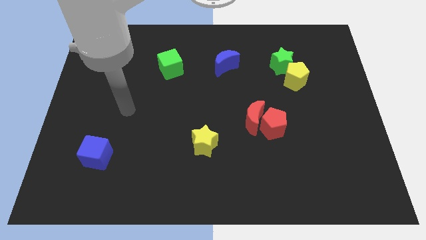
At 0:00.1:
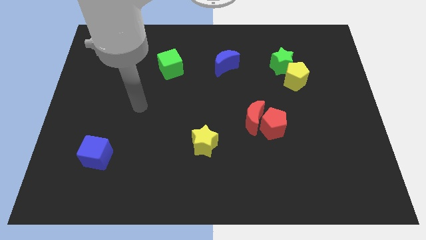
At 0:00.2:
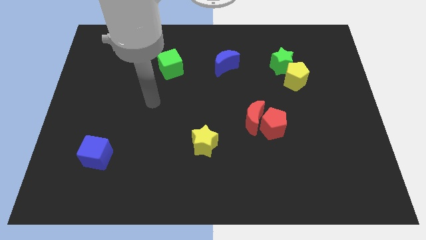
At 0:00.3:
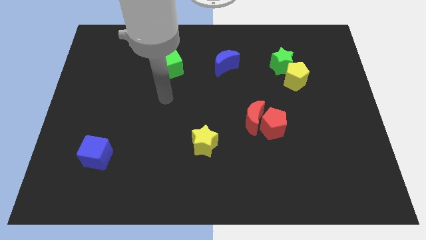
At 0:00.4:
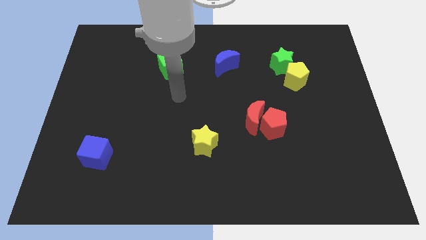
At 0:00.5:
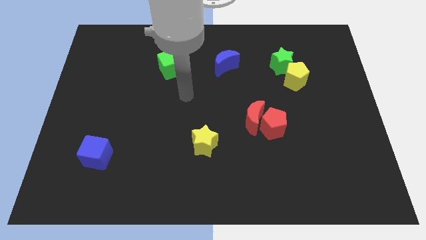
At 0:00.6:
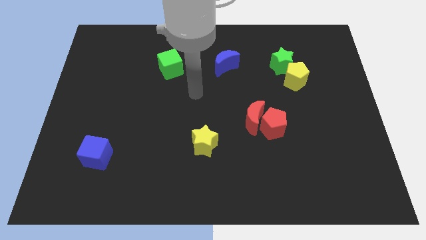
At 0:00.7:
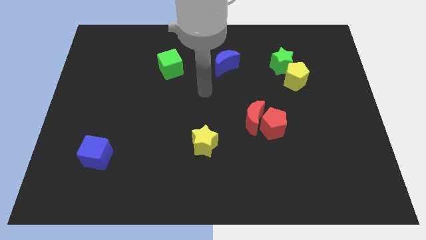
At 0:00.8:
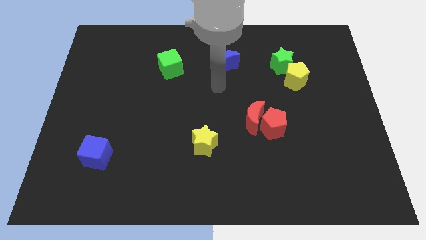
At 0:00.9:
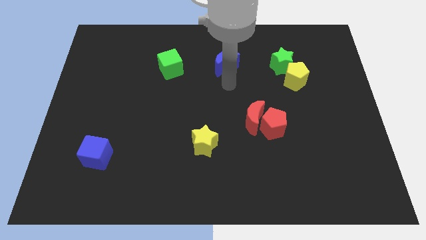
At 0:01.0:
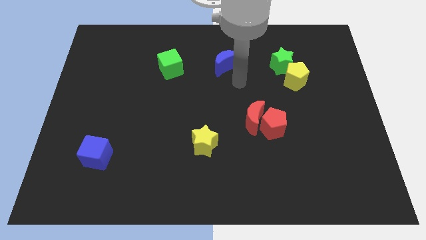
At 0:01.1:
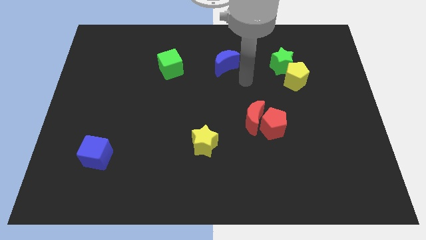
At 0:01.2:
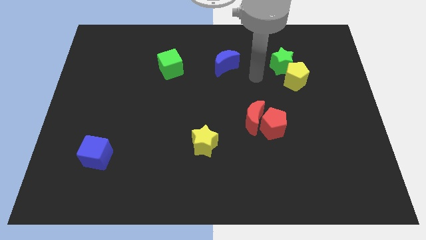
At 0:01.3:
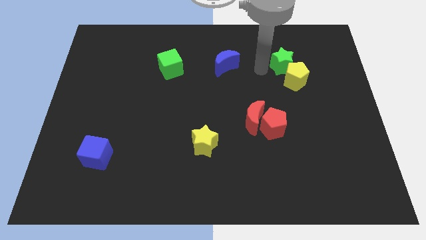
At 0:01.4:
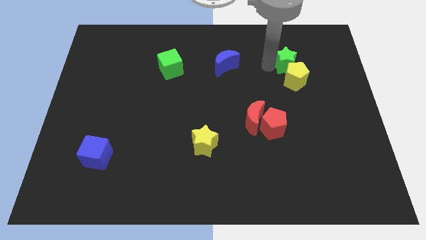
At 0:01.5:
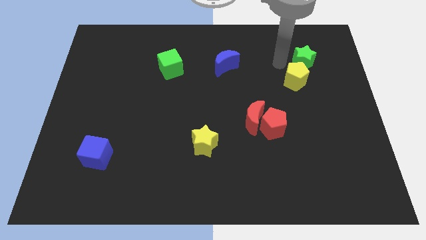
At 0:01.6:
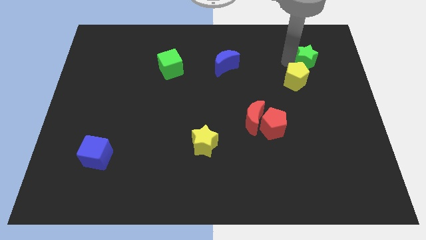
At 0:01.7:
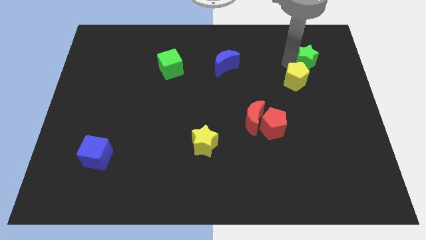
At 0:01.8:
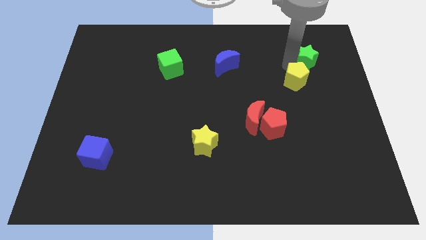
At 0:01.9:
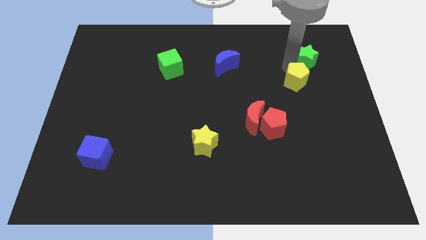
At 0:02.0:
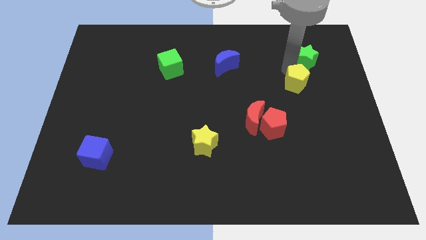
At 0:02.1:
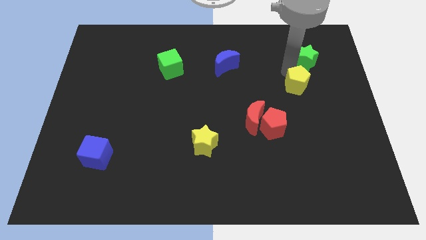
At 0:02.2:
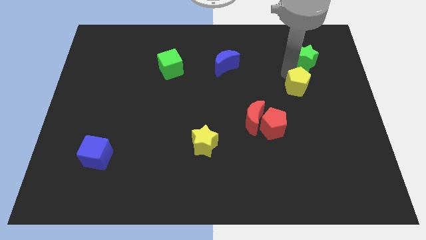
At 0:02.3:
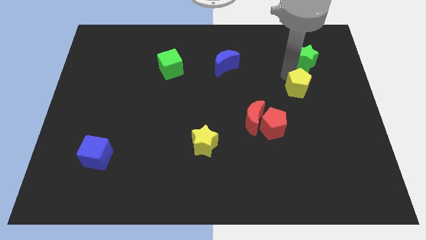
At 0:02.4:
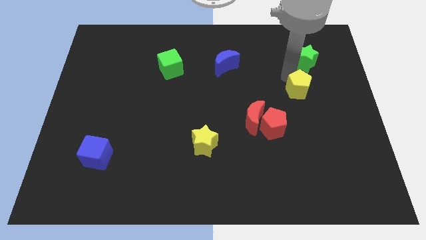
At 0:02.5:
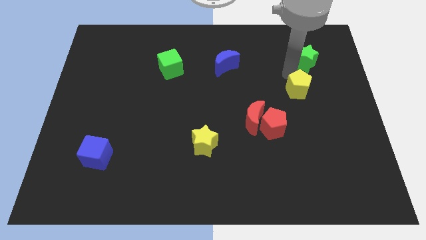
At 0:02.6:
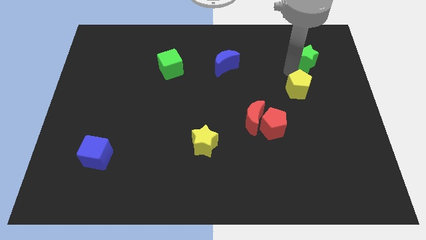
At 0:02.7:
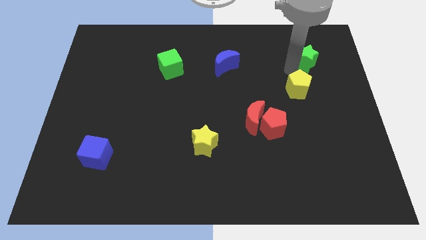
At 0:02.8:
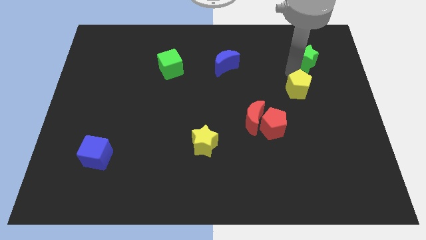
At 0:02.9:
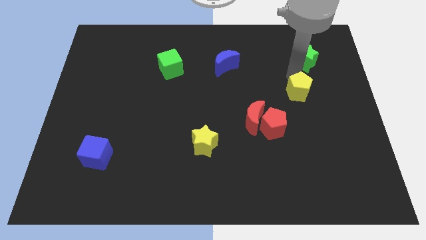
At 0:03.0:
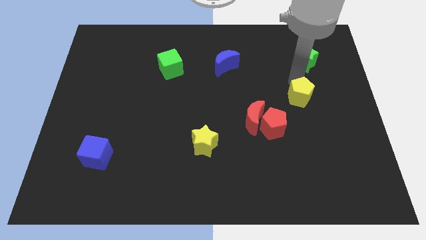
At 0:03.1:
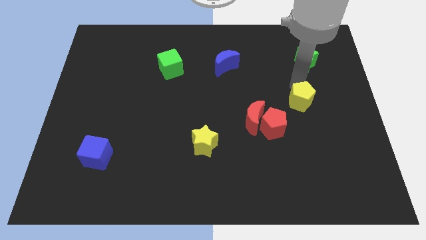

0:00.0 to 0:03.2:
slide the yellow pentagon slightly downwards

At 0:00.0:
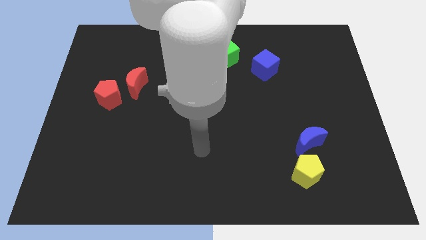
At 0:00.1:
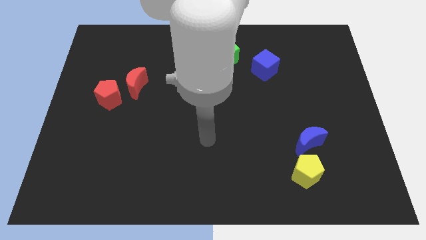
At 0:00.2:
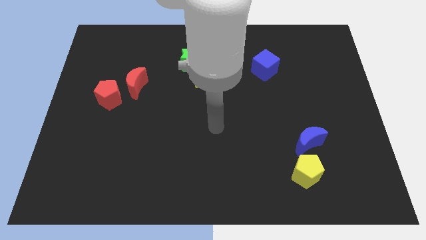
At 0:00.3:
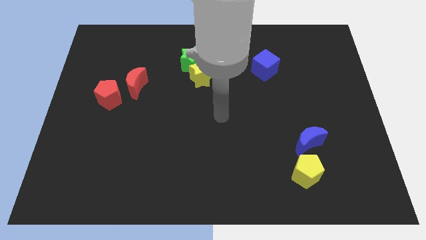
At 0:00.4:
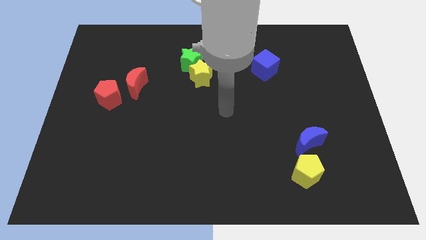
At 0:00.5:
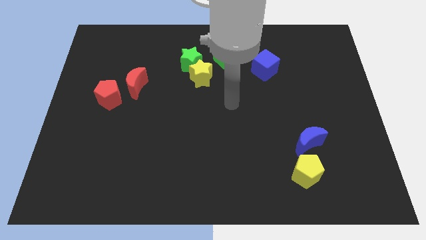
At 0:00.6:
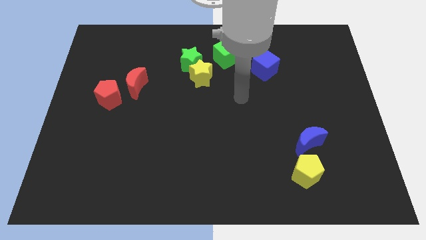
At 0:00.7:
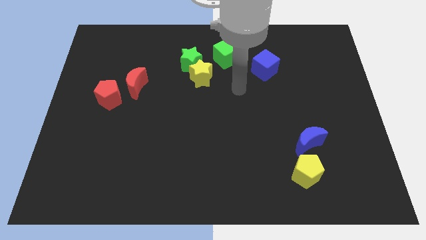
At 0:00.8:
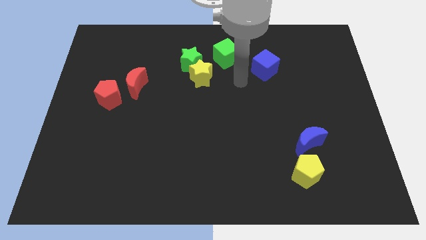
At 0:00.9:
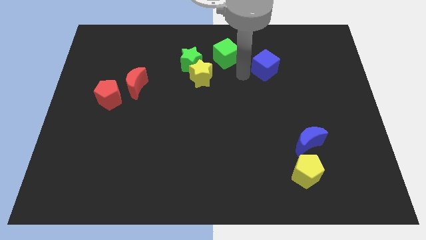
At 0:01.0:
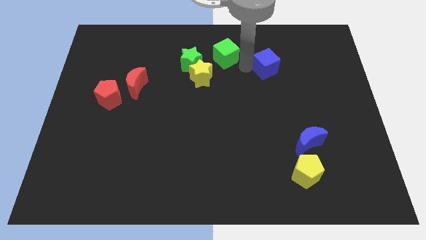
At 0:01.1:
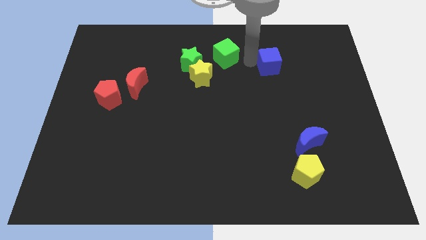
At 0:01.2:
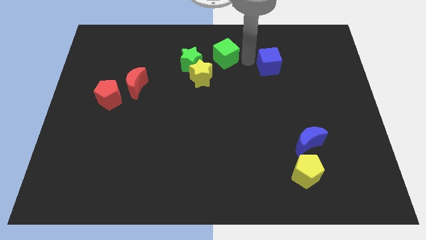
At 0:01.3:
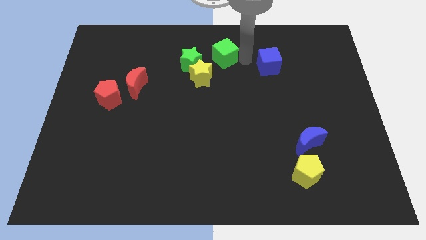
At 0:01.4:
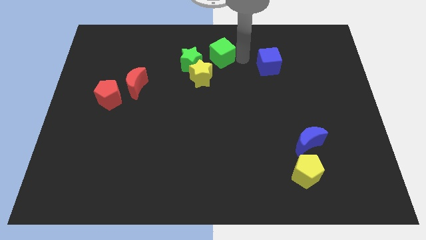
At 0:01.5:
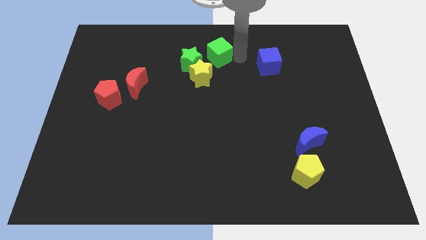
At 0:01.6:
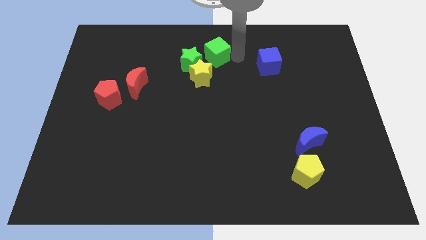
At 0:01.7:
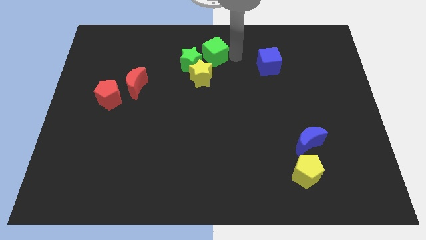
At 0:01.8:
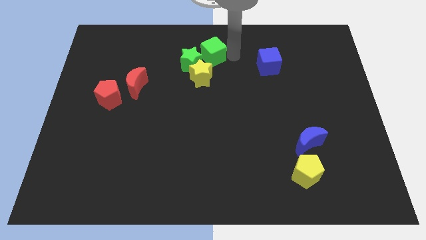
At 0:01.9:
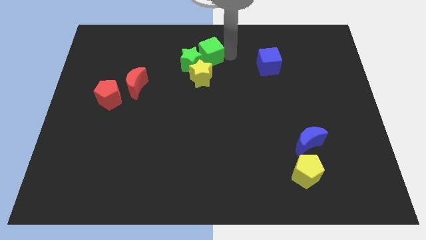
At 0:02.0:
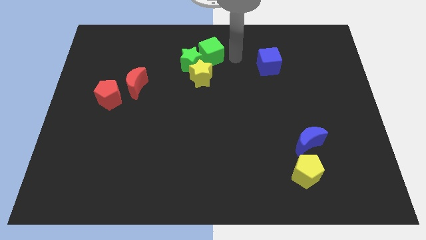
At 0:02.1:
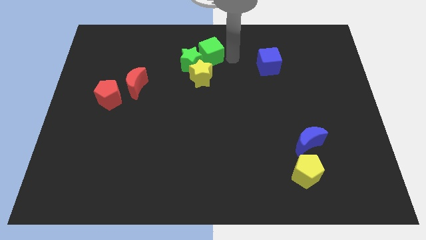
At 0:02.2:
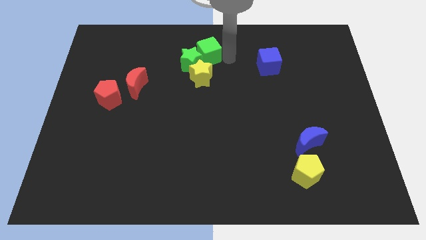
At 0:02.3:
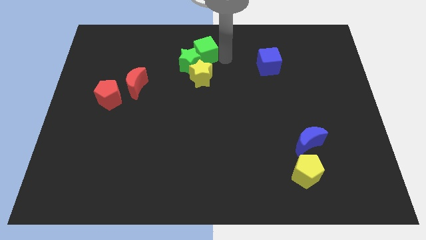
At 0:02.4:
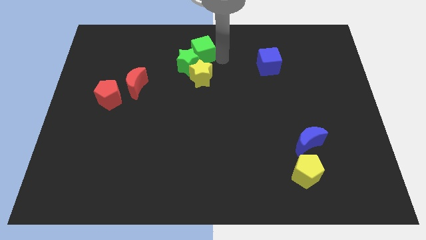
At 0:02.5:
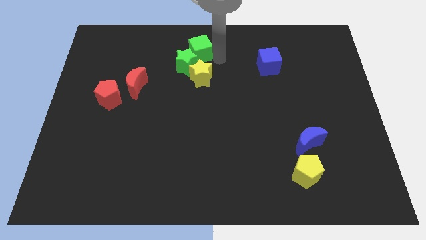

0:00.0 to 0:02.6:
slide the green cube left a little bit

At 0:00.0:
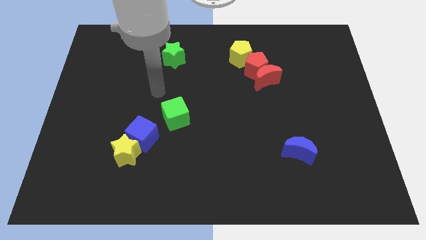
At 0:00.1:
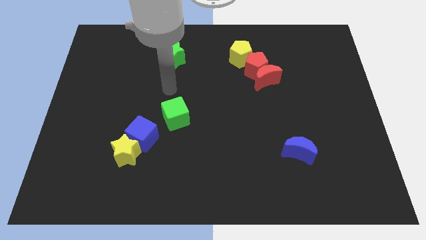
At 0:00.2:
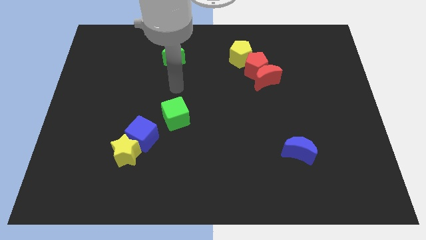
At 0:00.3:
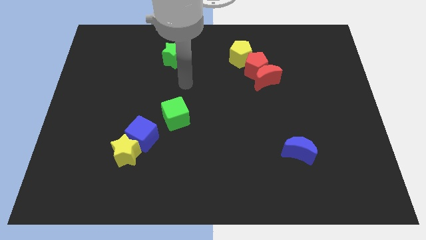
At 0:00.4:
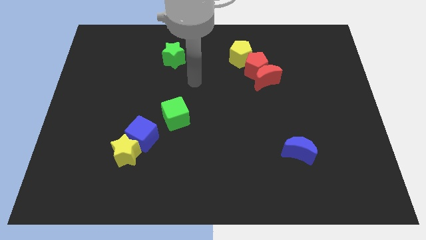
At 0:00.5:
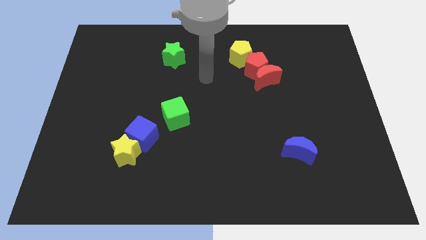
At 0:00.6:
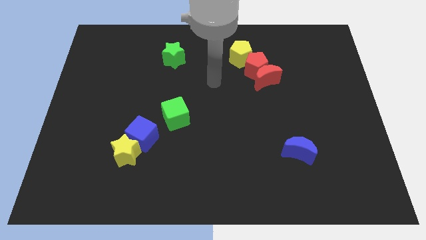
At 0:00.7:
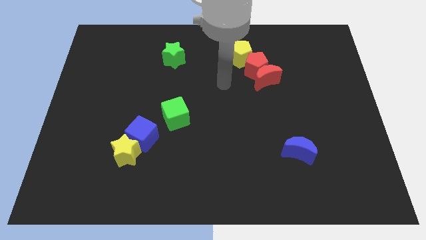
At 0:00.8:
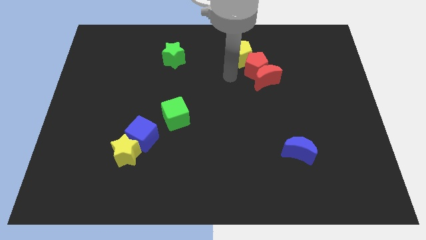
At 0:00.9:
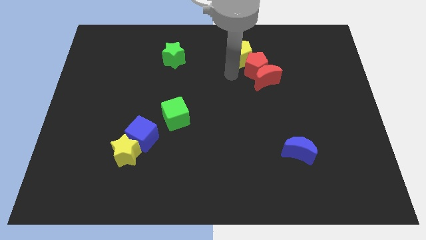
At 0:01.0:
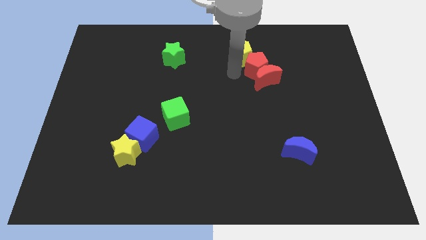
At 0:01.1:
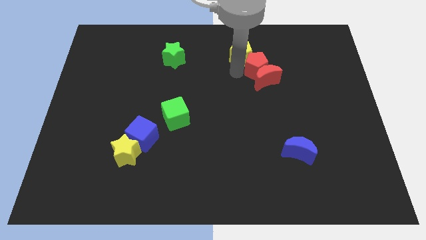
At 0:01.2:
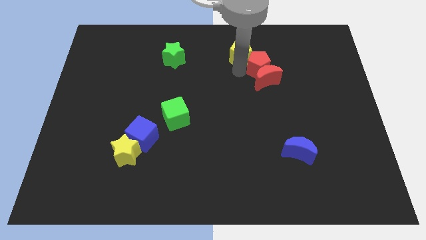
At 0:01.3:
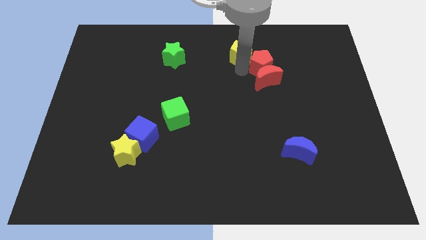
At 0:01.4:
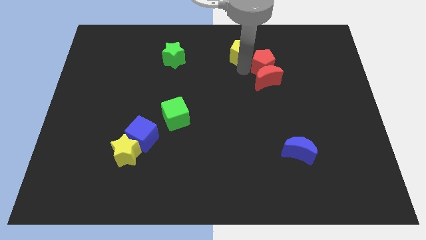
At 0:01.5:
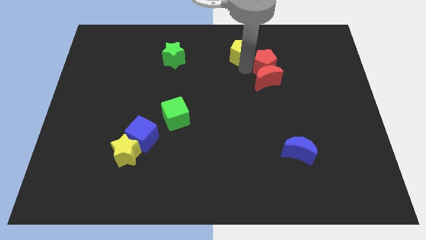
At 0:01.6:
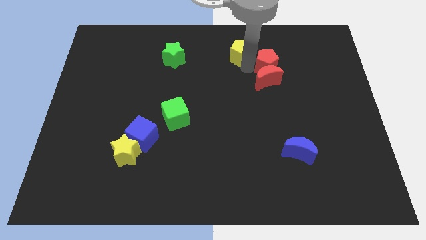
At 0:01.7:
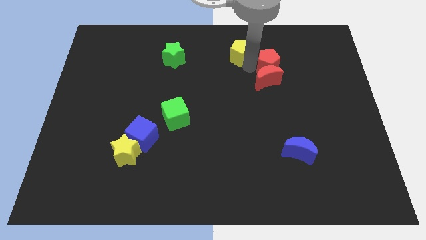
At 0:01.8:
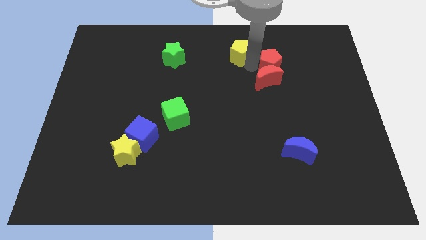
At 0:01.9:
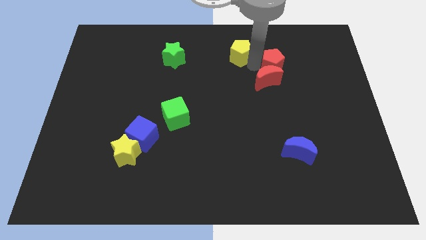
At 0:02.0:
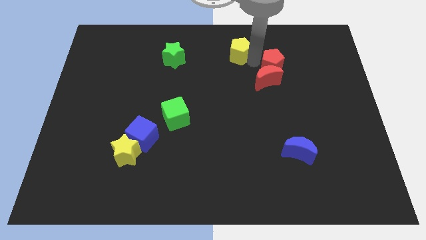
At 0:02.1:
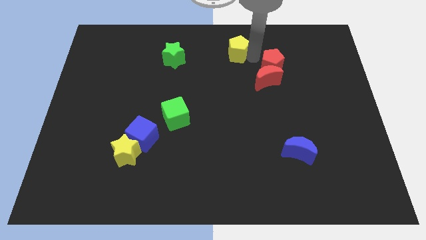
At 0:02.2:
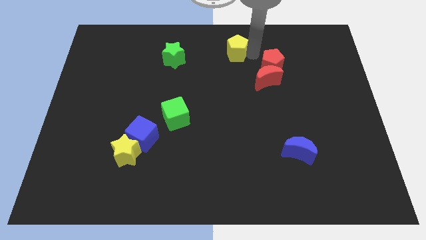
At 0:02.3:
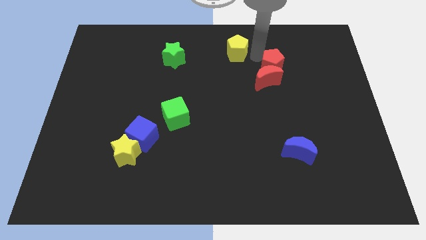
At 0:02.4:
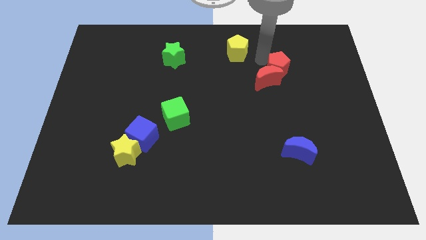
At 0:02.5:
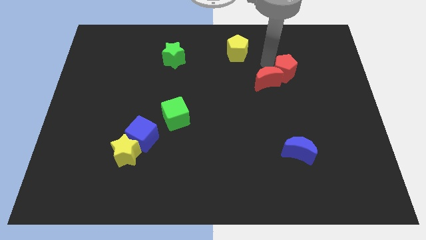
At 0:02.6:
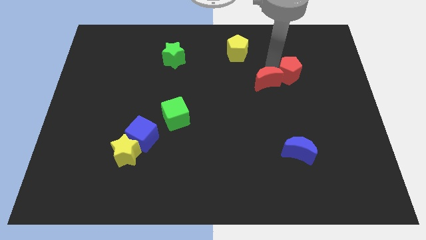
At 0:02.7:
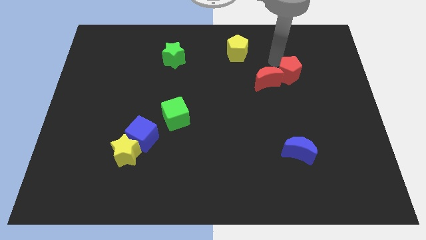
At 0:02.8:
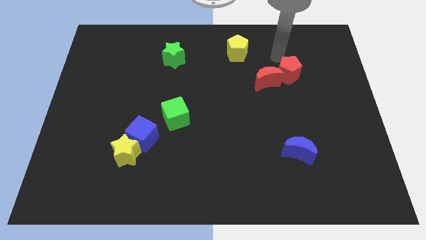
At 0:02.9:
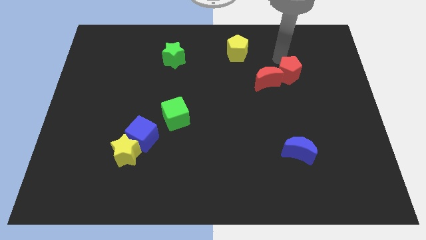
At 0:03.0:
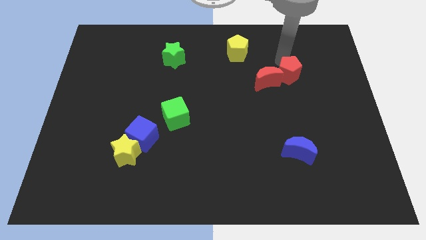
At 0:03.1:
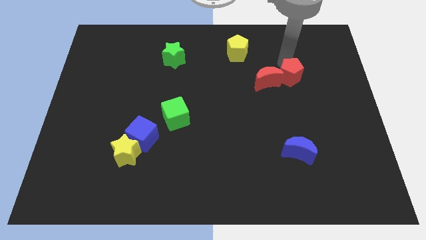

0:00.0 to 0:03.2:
push the red pentagon a little downwards and then right
